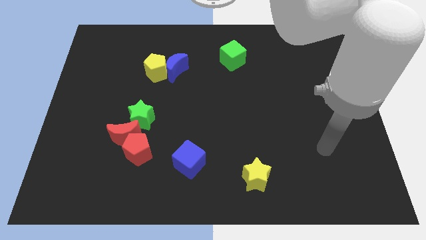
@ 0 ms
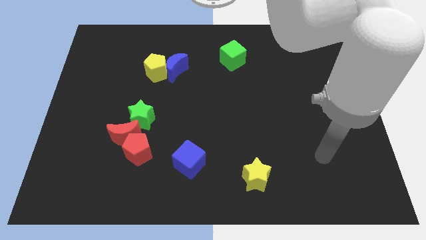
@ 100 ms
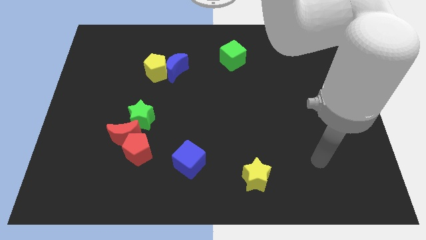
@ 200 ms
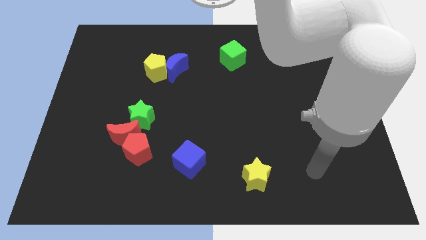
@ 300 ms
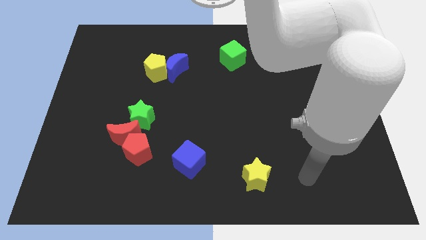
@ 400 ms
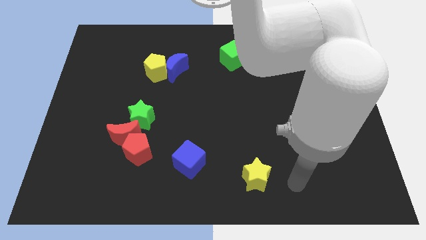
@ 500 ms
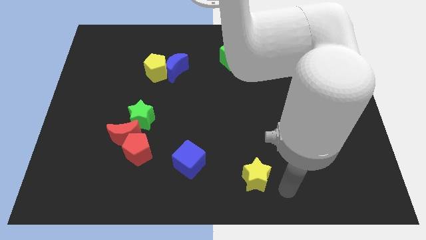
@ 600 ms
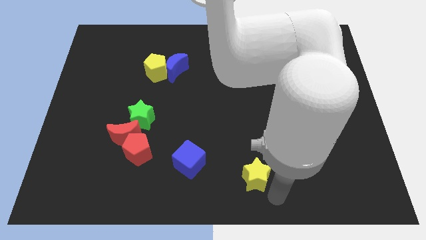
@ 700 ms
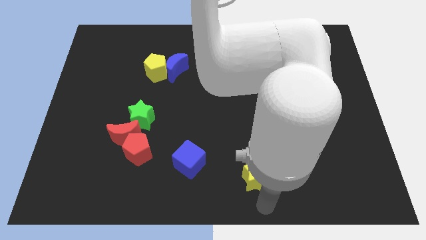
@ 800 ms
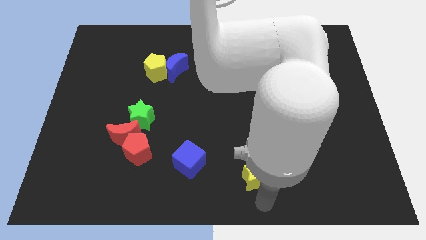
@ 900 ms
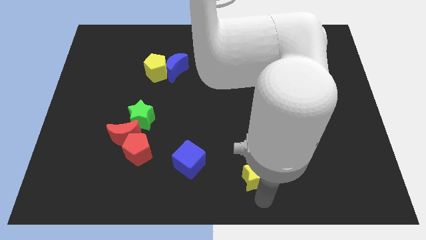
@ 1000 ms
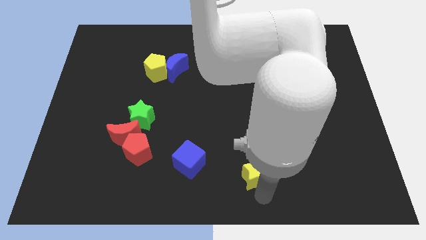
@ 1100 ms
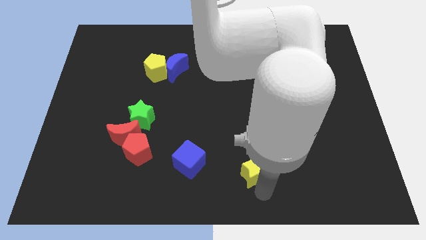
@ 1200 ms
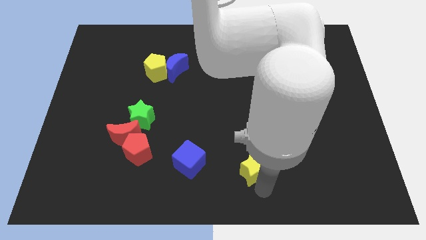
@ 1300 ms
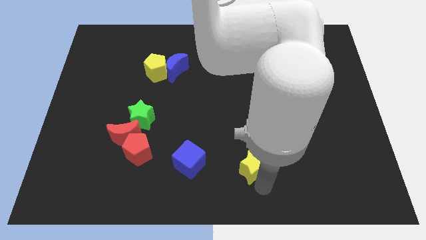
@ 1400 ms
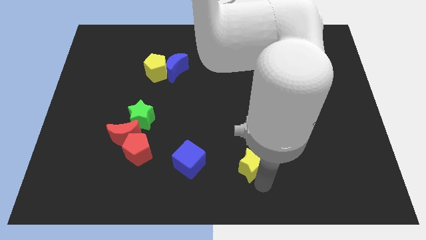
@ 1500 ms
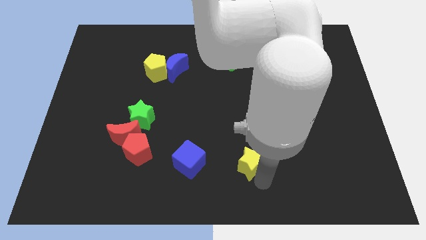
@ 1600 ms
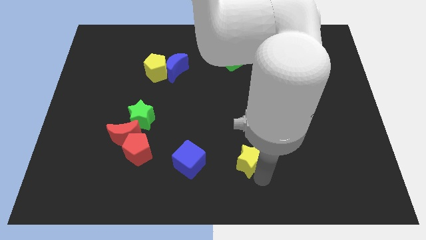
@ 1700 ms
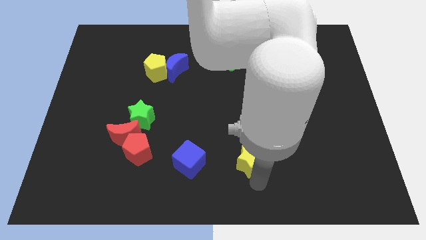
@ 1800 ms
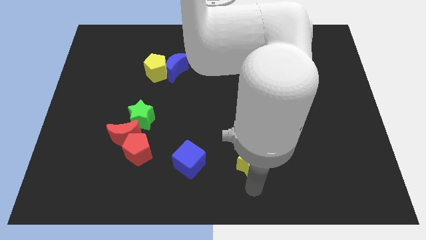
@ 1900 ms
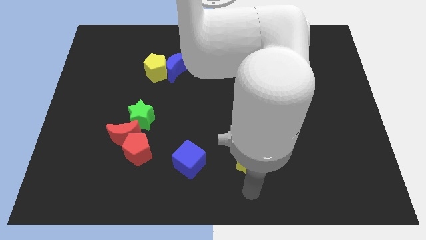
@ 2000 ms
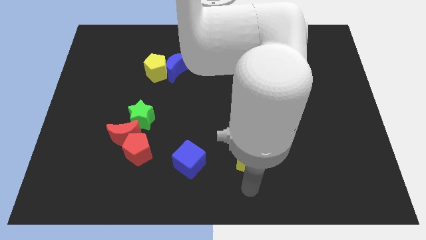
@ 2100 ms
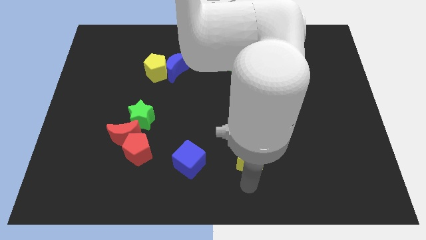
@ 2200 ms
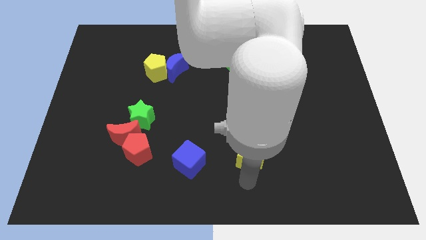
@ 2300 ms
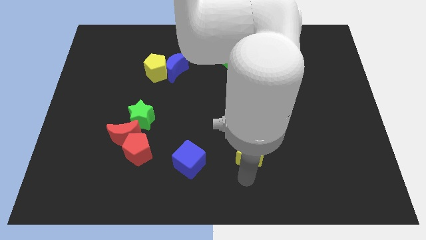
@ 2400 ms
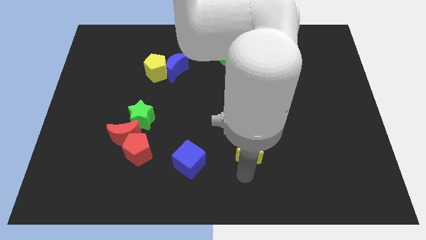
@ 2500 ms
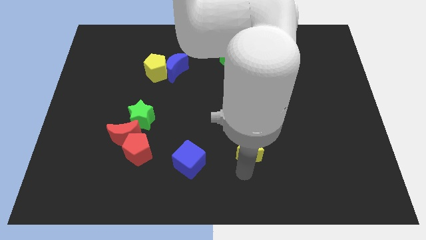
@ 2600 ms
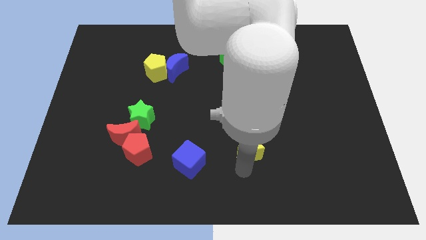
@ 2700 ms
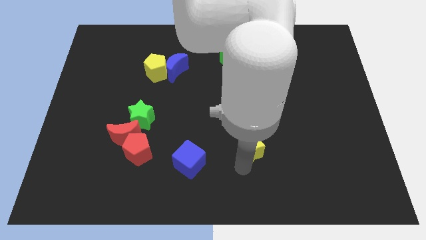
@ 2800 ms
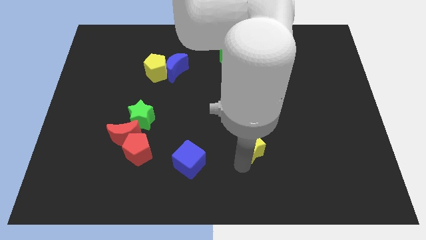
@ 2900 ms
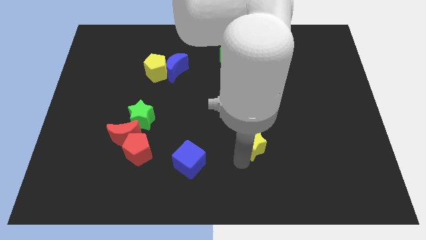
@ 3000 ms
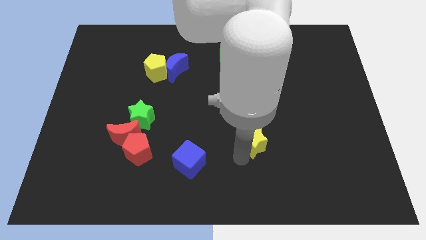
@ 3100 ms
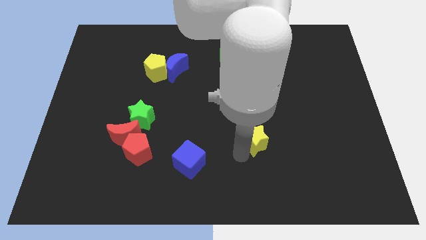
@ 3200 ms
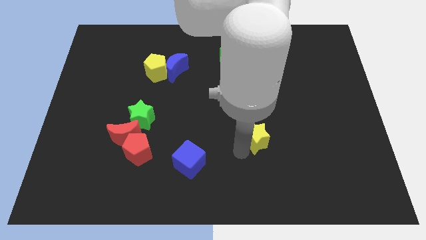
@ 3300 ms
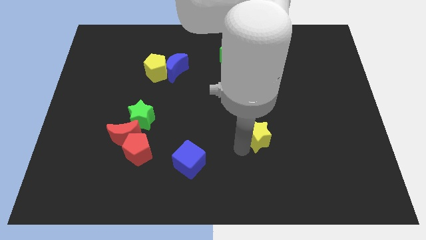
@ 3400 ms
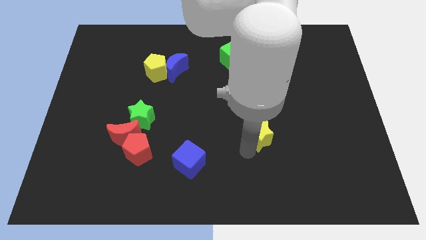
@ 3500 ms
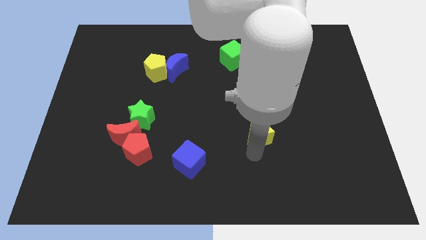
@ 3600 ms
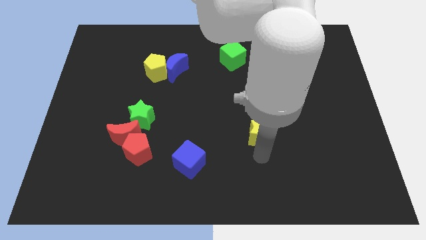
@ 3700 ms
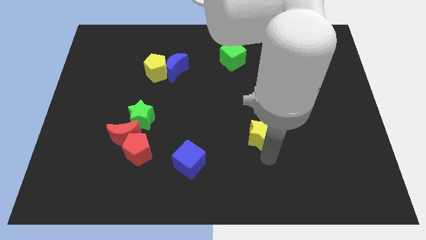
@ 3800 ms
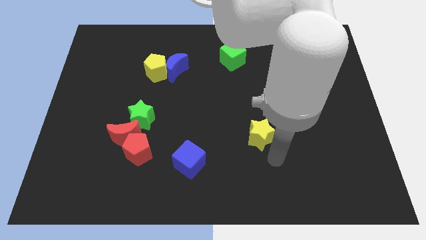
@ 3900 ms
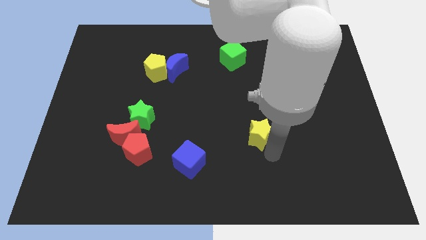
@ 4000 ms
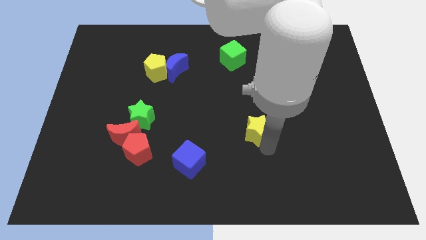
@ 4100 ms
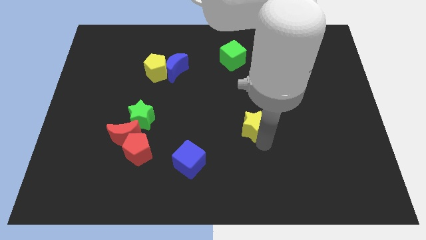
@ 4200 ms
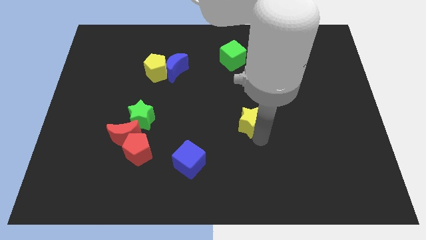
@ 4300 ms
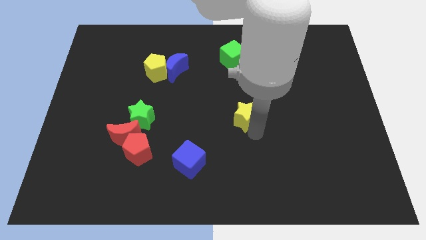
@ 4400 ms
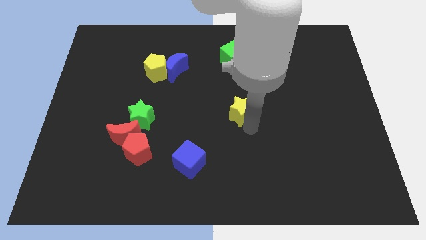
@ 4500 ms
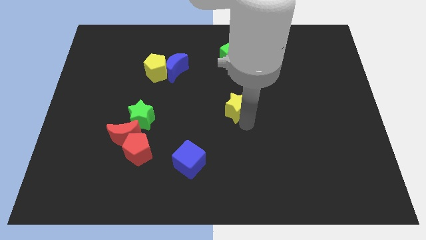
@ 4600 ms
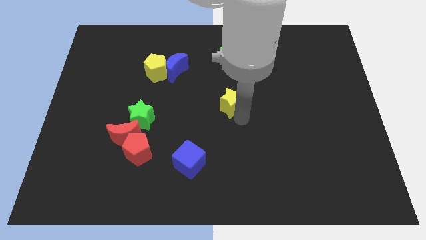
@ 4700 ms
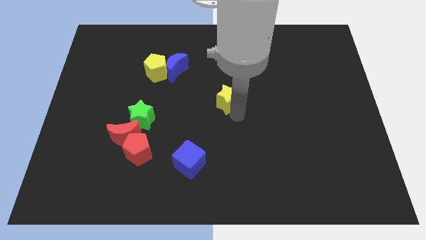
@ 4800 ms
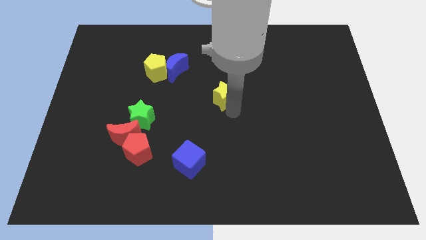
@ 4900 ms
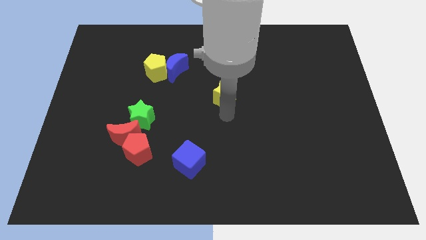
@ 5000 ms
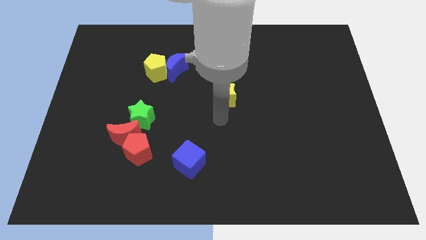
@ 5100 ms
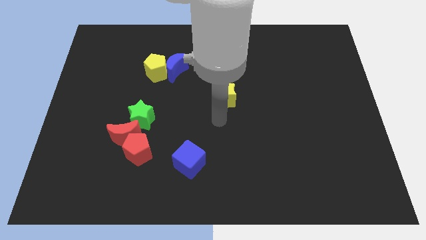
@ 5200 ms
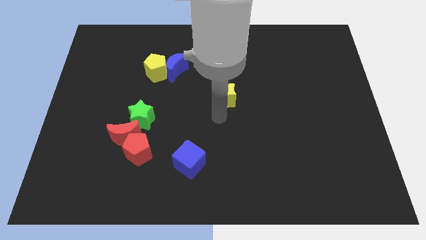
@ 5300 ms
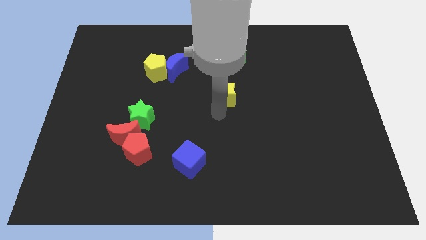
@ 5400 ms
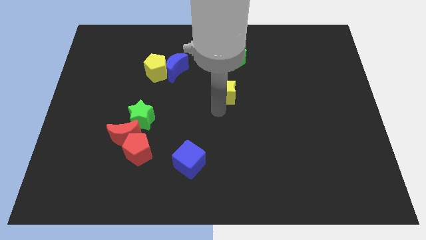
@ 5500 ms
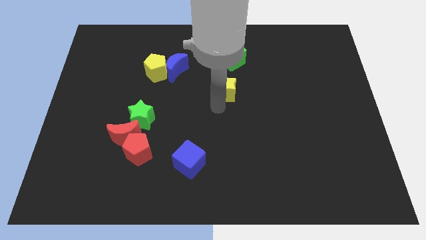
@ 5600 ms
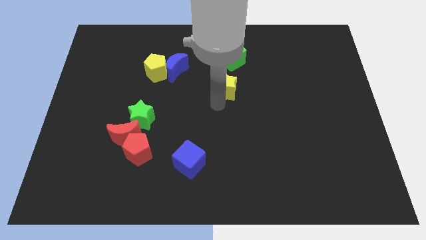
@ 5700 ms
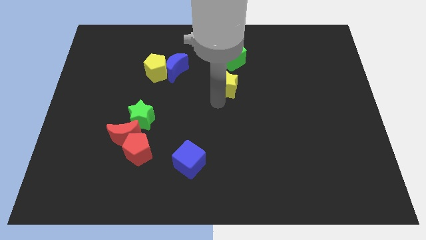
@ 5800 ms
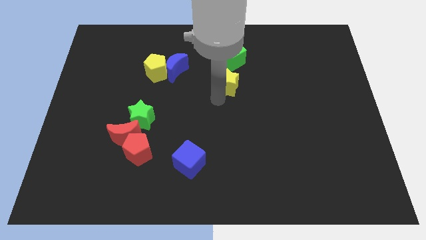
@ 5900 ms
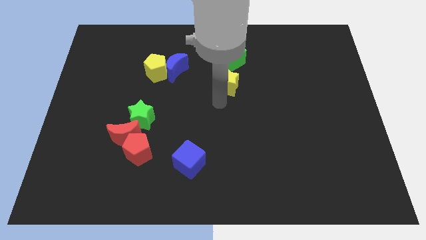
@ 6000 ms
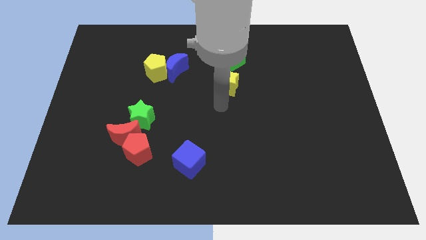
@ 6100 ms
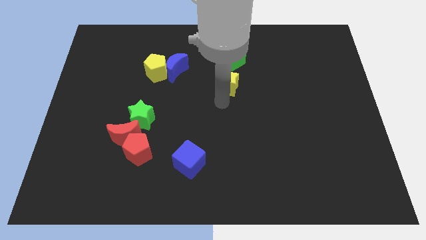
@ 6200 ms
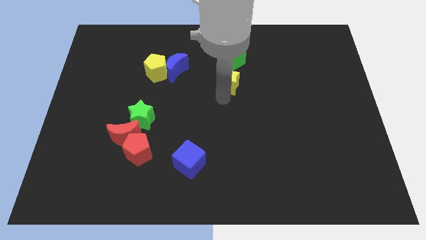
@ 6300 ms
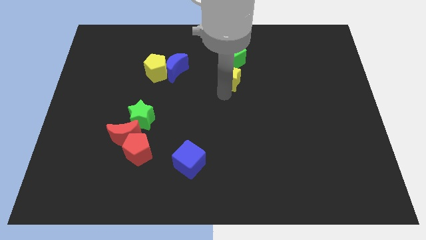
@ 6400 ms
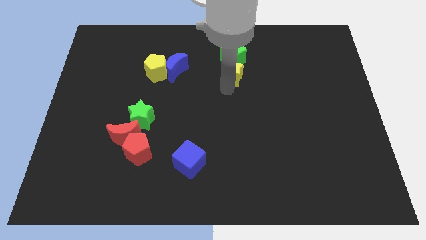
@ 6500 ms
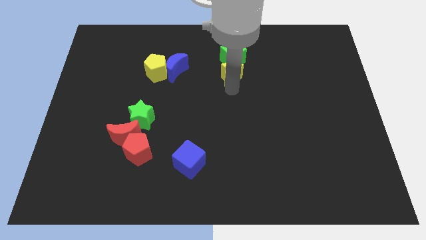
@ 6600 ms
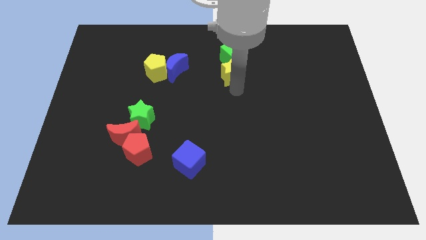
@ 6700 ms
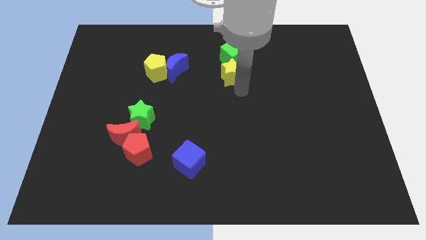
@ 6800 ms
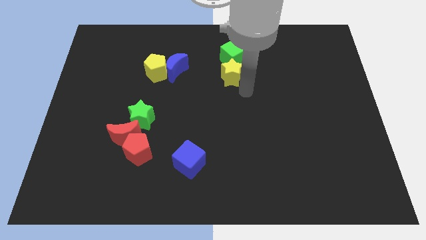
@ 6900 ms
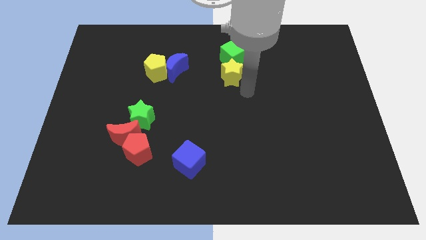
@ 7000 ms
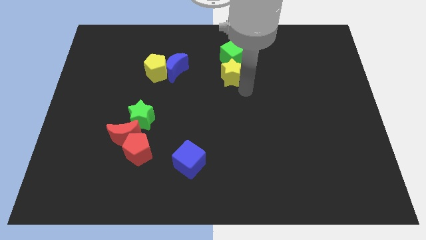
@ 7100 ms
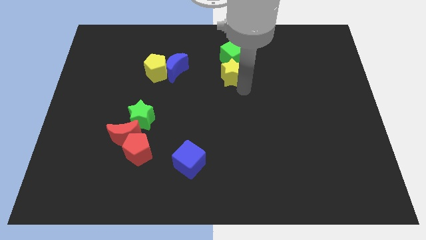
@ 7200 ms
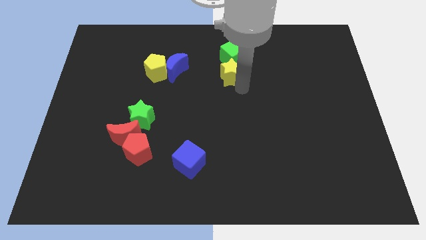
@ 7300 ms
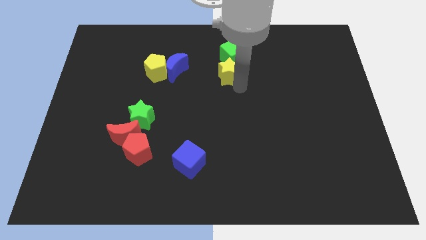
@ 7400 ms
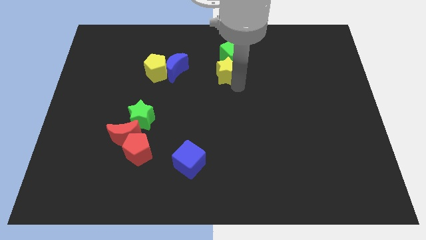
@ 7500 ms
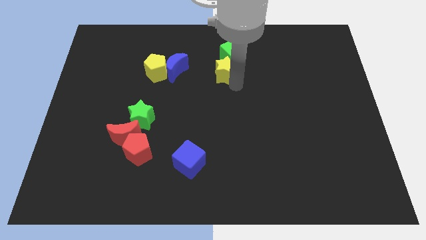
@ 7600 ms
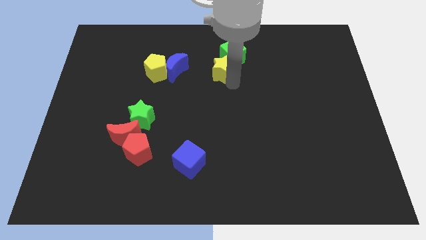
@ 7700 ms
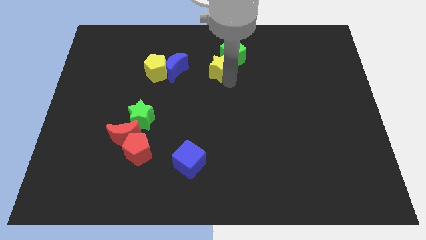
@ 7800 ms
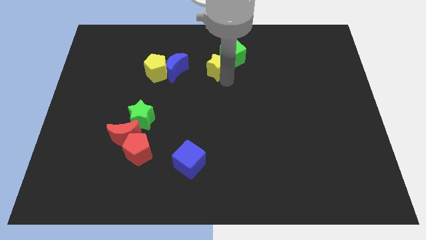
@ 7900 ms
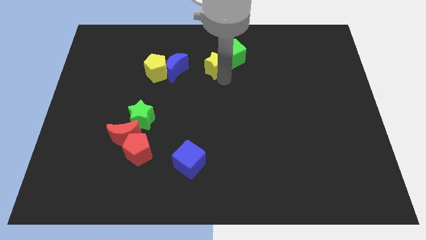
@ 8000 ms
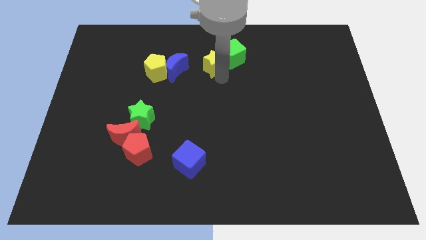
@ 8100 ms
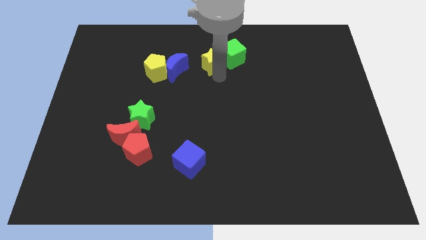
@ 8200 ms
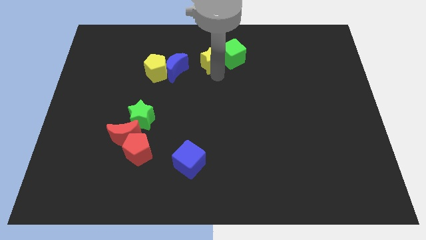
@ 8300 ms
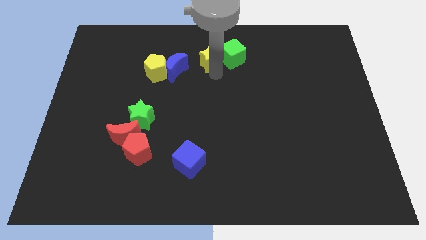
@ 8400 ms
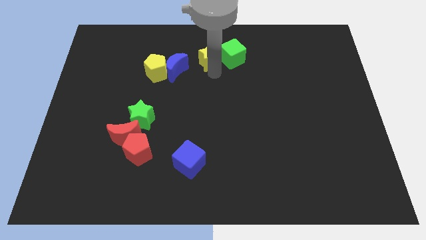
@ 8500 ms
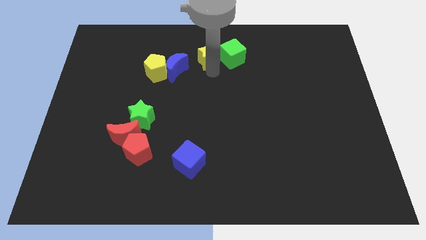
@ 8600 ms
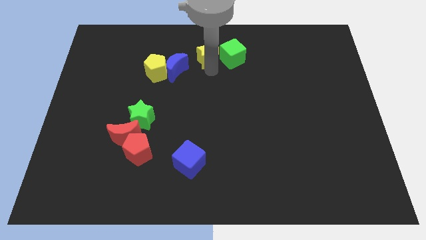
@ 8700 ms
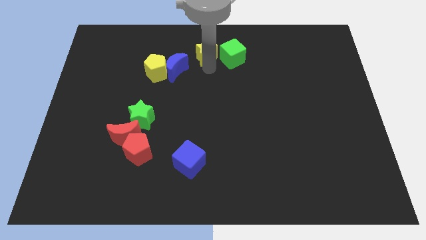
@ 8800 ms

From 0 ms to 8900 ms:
put the yellow star to the towards your base
